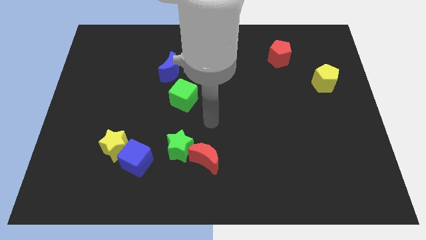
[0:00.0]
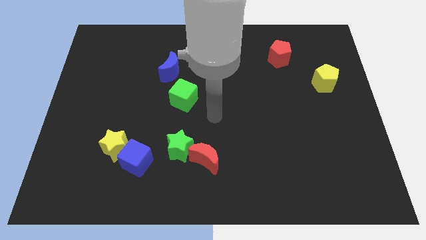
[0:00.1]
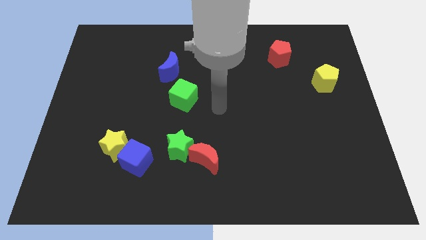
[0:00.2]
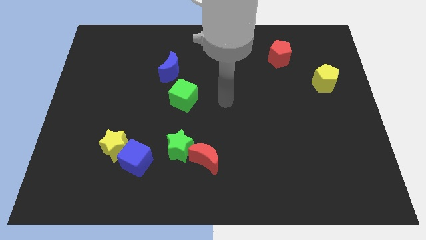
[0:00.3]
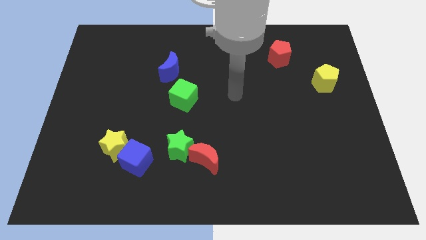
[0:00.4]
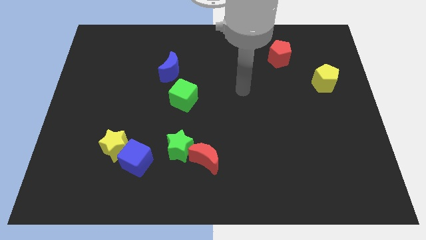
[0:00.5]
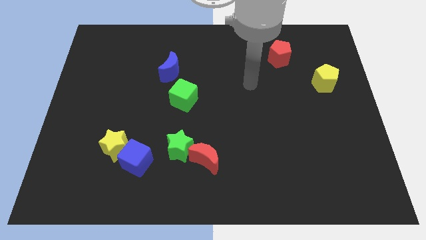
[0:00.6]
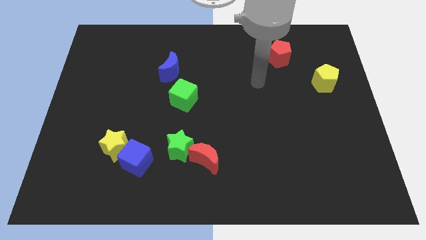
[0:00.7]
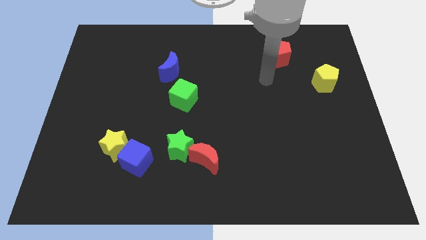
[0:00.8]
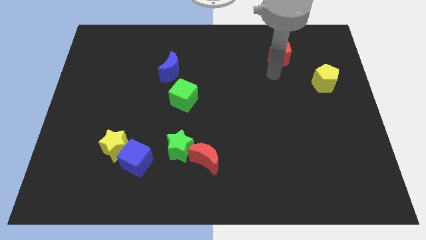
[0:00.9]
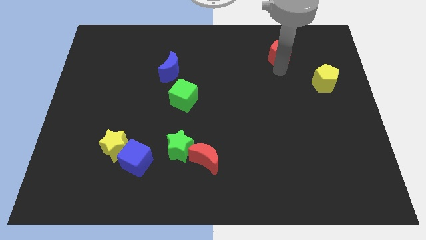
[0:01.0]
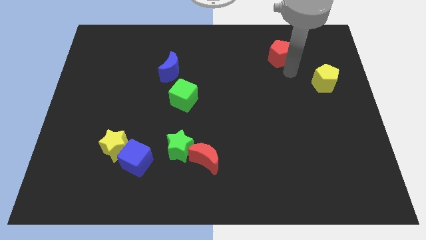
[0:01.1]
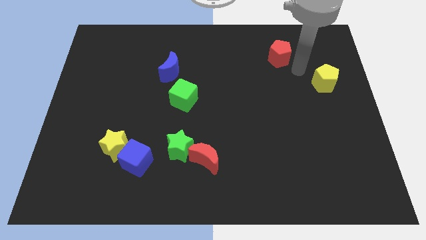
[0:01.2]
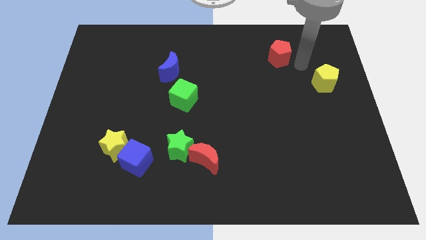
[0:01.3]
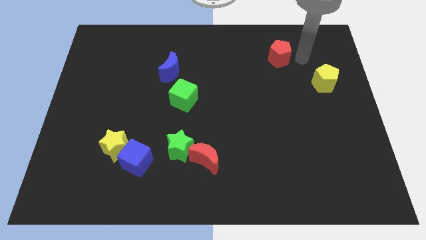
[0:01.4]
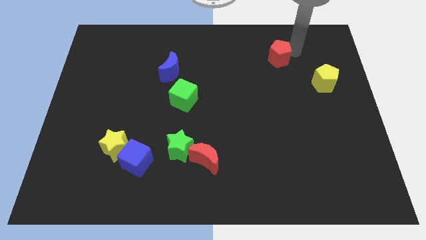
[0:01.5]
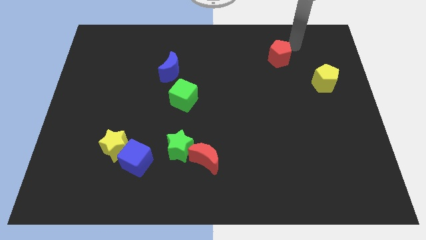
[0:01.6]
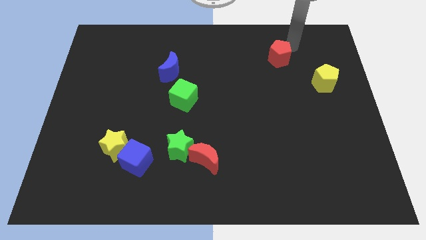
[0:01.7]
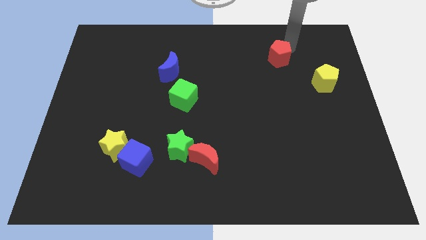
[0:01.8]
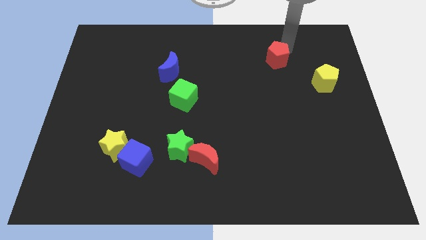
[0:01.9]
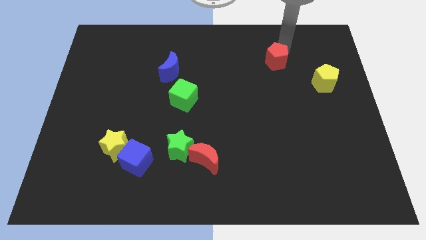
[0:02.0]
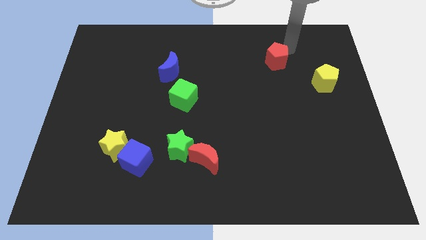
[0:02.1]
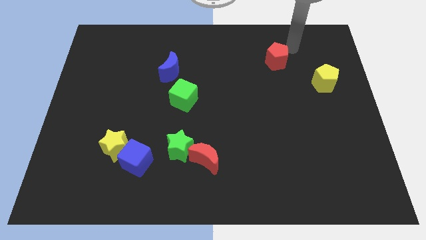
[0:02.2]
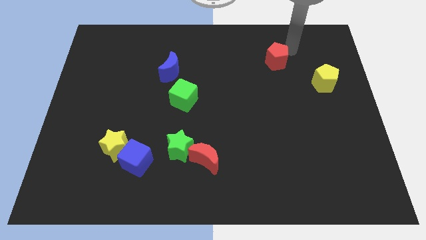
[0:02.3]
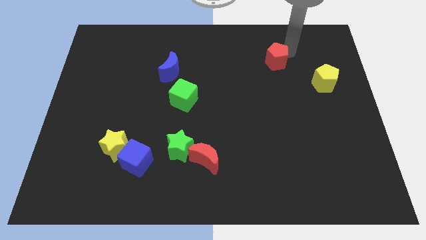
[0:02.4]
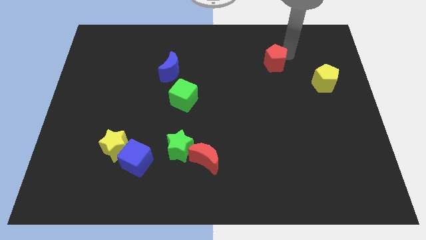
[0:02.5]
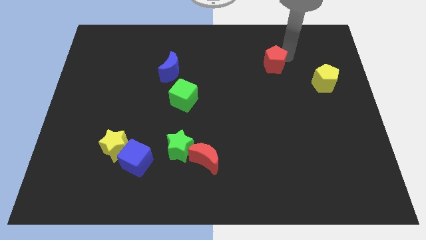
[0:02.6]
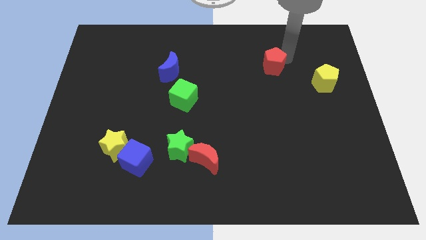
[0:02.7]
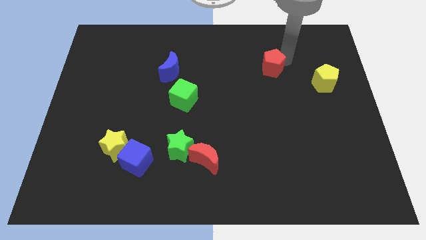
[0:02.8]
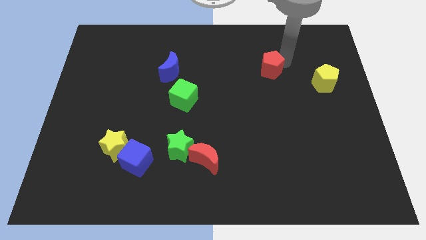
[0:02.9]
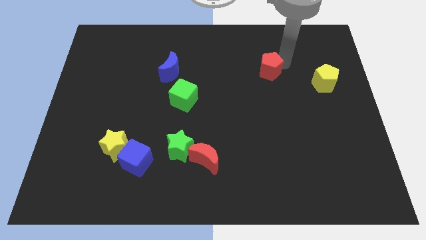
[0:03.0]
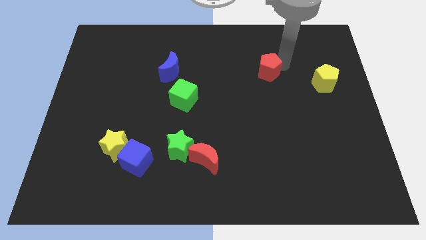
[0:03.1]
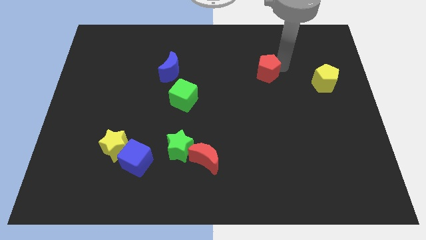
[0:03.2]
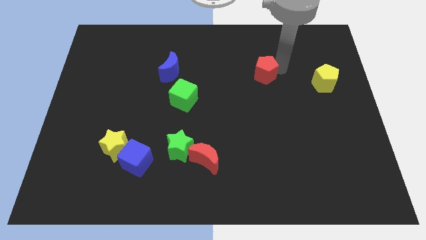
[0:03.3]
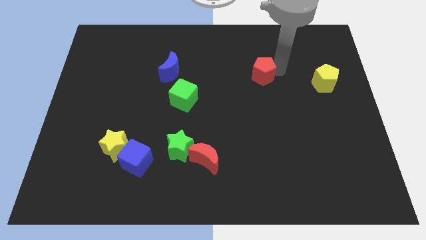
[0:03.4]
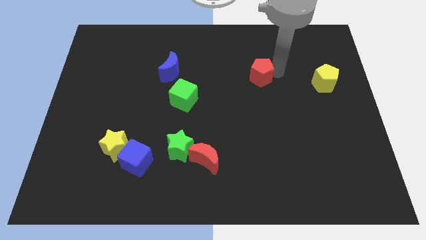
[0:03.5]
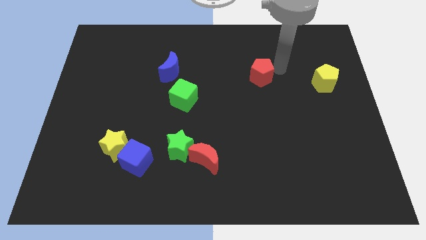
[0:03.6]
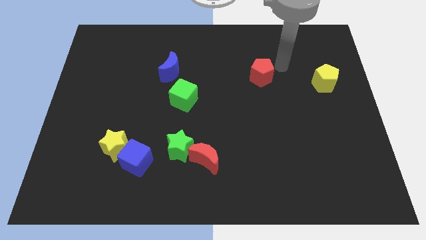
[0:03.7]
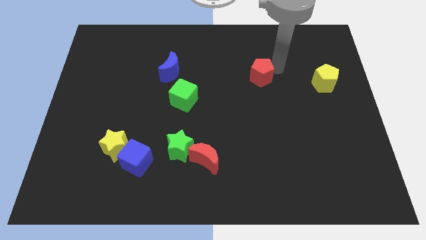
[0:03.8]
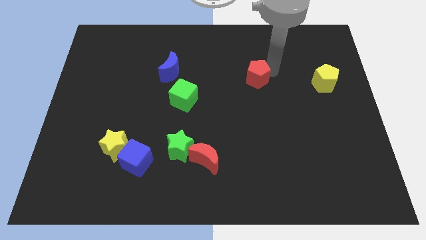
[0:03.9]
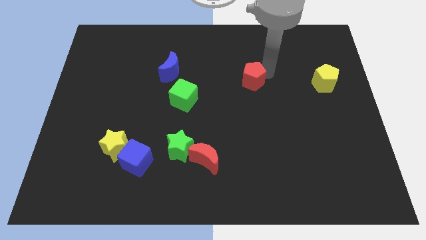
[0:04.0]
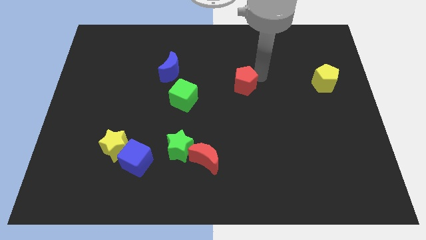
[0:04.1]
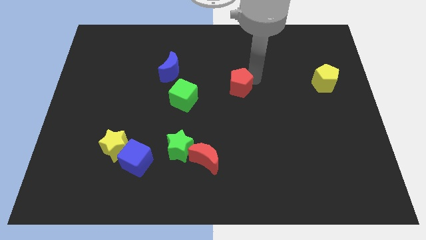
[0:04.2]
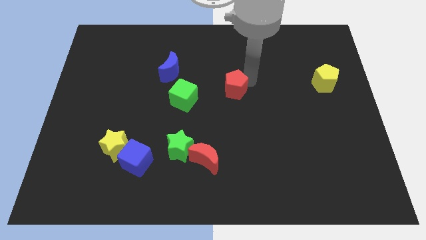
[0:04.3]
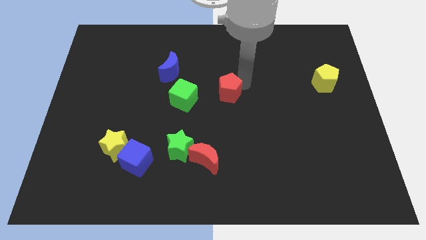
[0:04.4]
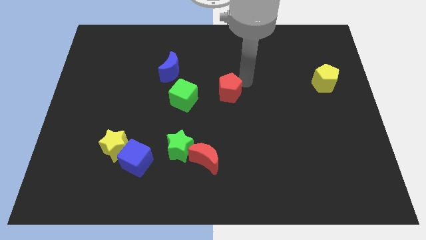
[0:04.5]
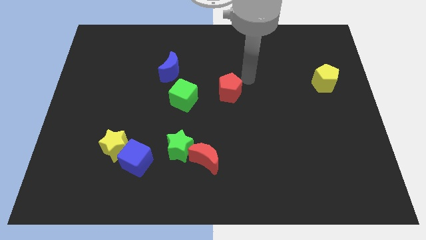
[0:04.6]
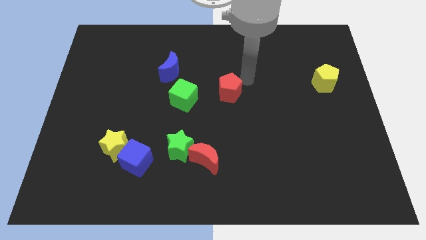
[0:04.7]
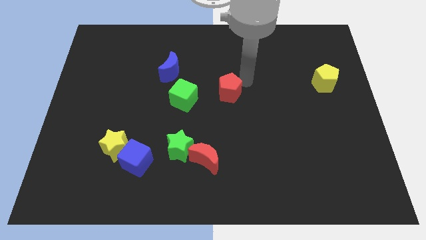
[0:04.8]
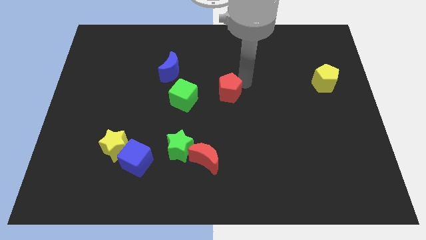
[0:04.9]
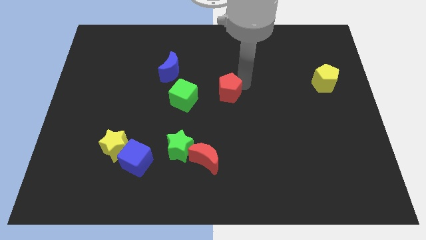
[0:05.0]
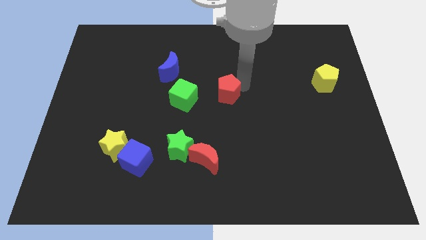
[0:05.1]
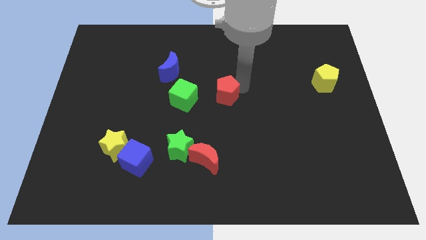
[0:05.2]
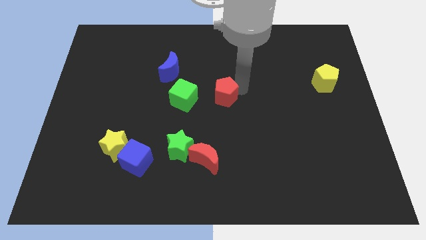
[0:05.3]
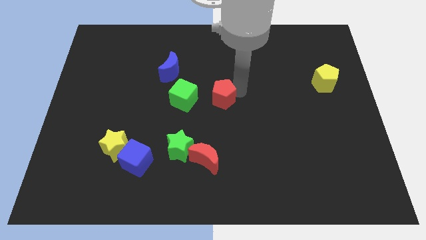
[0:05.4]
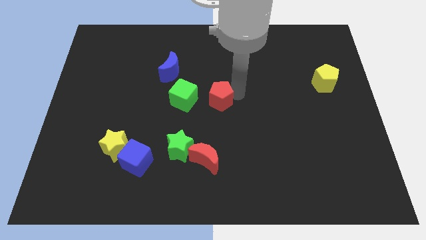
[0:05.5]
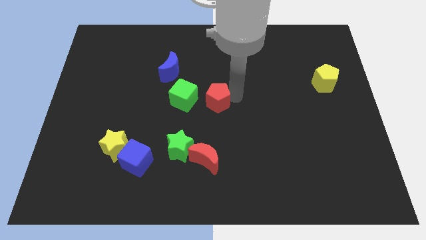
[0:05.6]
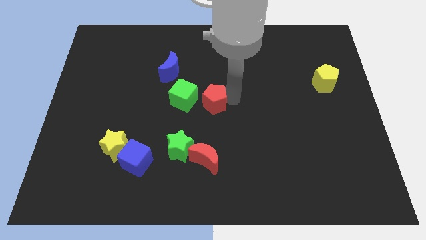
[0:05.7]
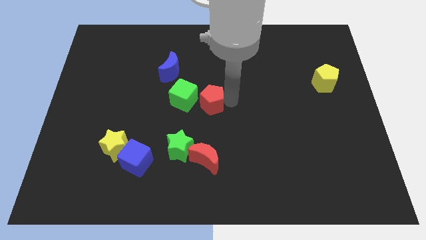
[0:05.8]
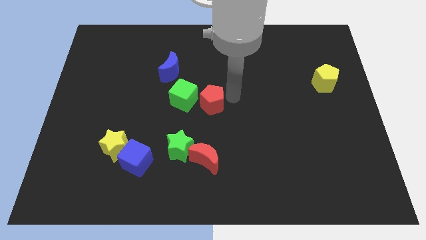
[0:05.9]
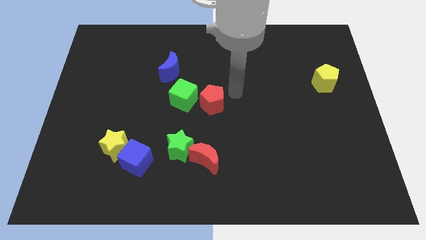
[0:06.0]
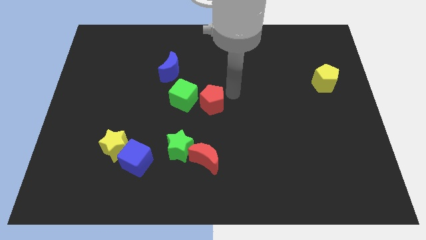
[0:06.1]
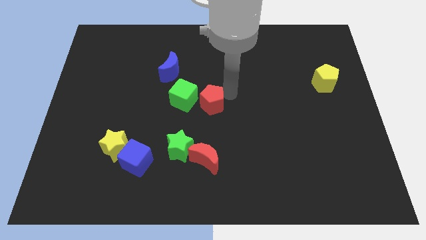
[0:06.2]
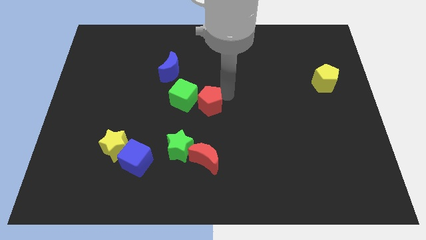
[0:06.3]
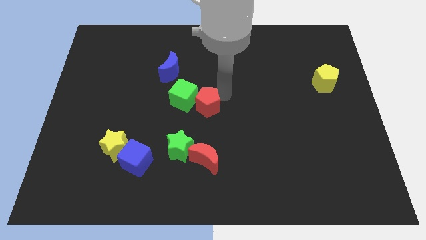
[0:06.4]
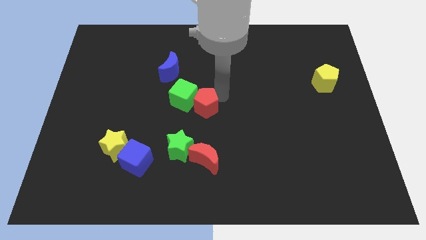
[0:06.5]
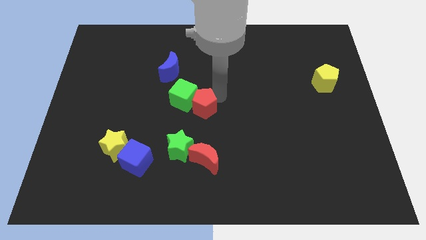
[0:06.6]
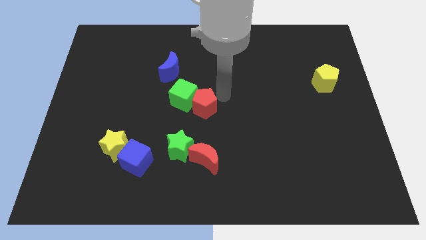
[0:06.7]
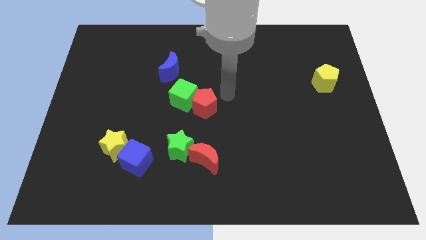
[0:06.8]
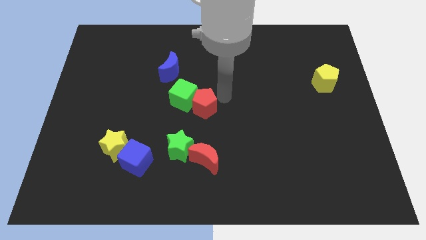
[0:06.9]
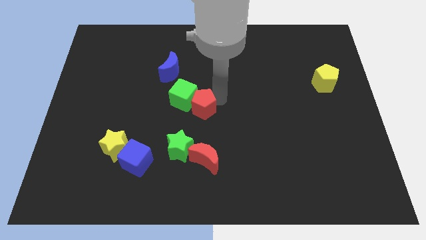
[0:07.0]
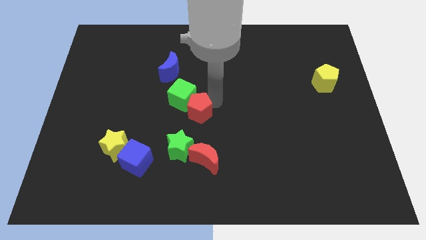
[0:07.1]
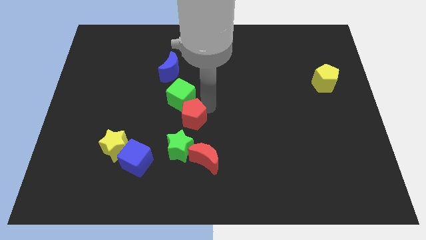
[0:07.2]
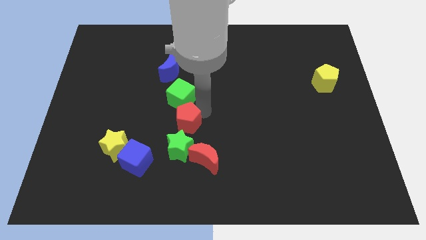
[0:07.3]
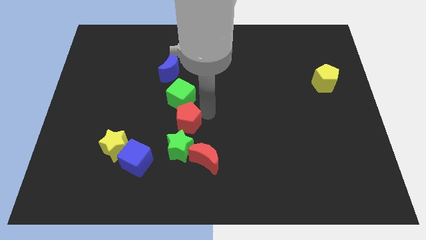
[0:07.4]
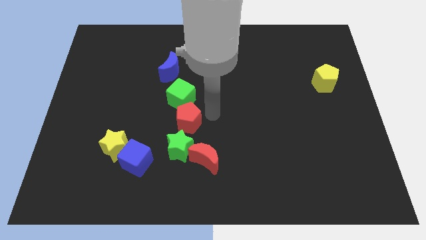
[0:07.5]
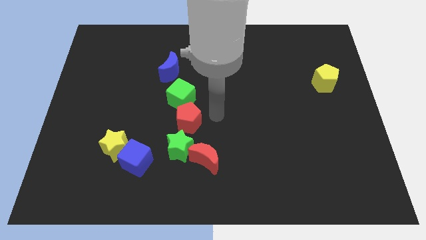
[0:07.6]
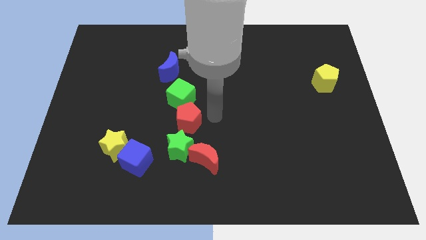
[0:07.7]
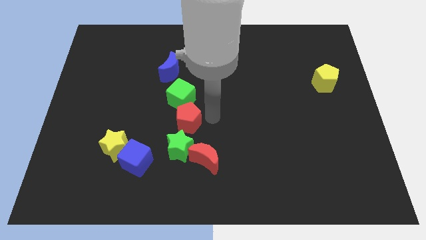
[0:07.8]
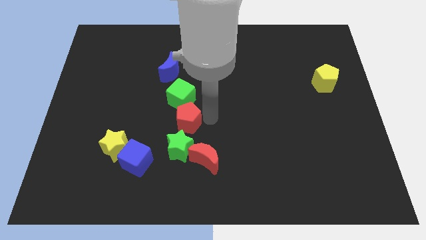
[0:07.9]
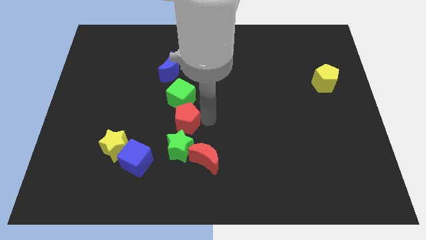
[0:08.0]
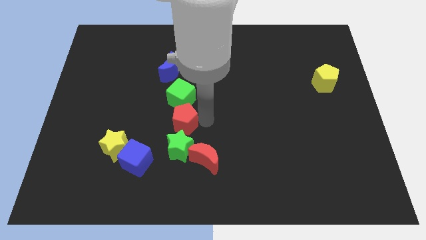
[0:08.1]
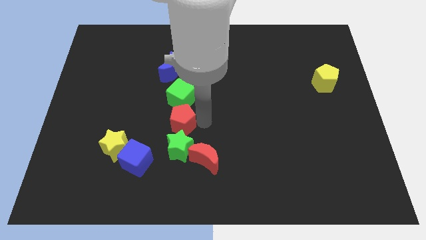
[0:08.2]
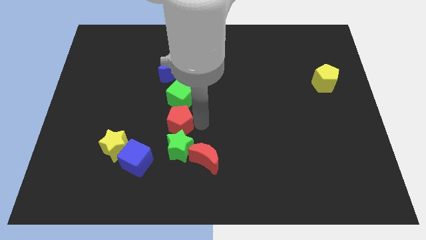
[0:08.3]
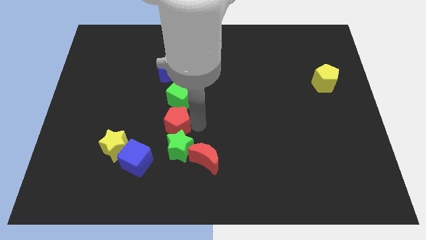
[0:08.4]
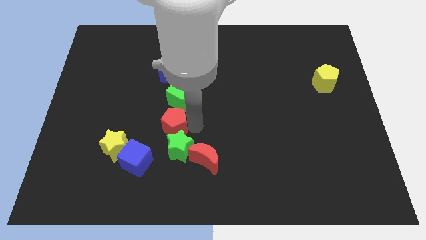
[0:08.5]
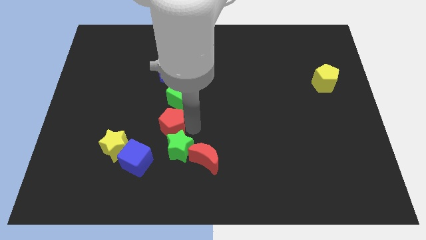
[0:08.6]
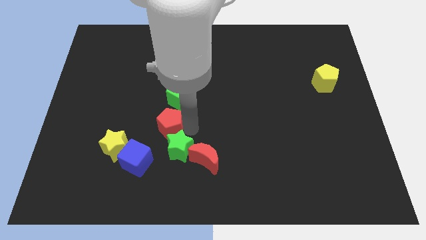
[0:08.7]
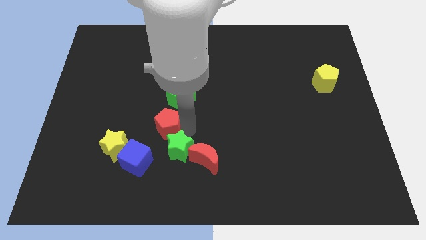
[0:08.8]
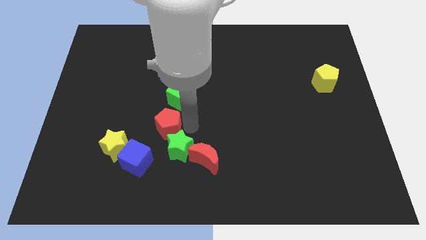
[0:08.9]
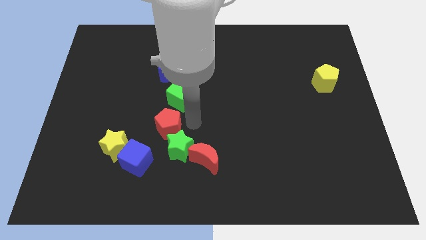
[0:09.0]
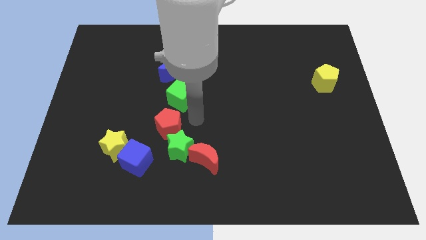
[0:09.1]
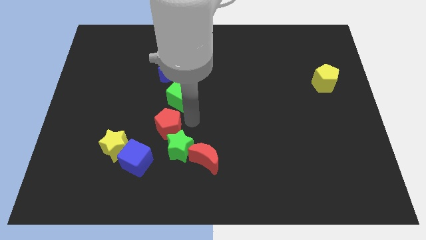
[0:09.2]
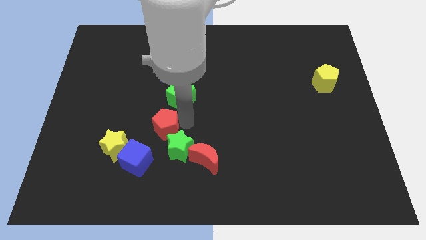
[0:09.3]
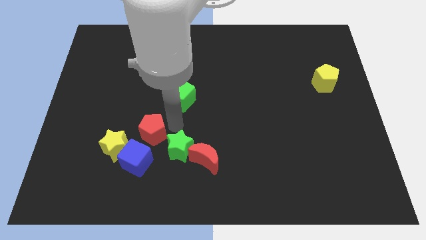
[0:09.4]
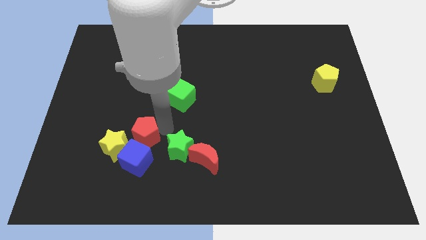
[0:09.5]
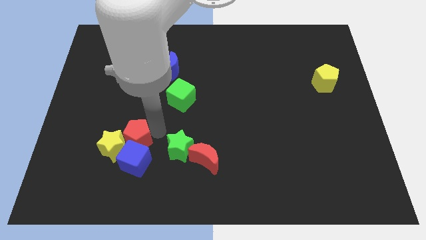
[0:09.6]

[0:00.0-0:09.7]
slide the red pentagon close to the yellow star
